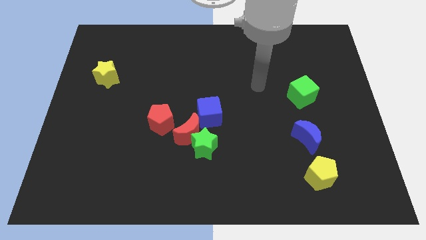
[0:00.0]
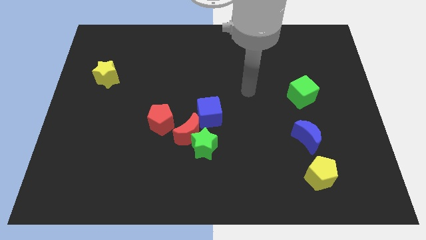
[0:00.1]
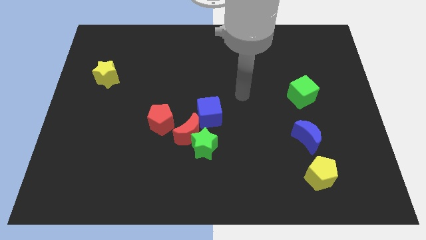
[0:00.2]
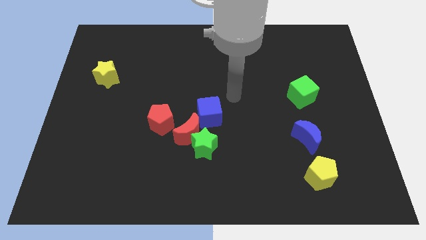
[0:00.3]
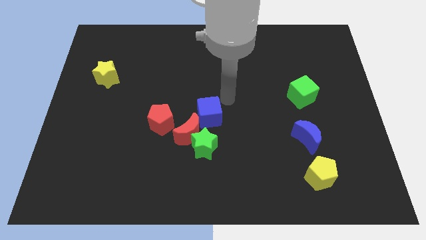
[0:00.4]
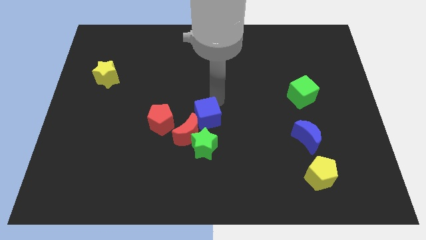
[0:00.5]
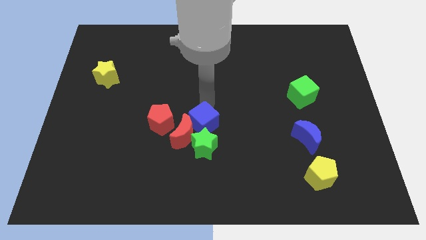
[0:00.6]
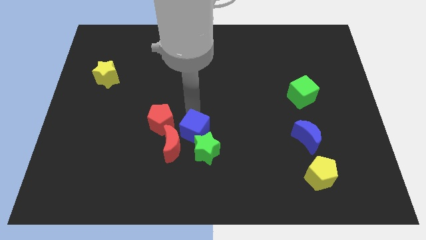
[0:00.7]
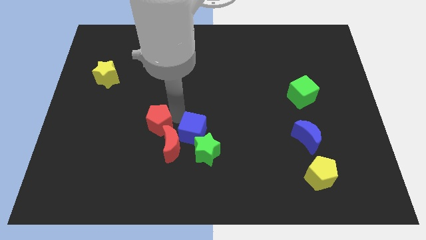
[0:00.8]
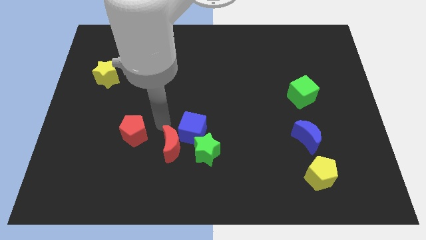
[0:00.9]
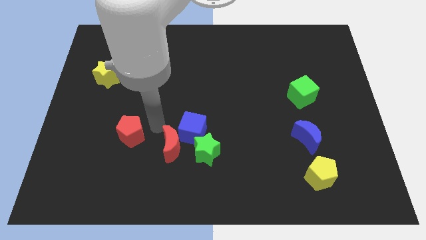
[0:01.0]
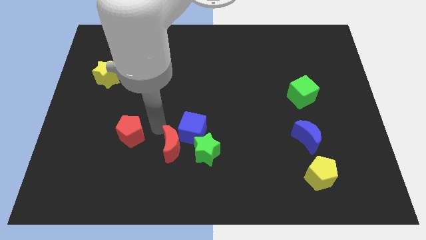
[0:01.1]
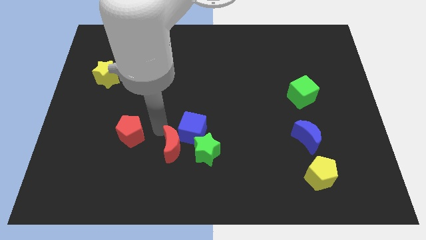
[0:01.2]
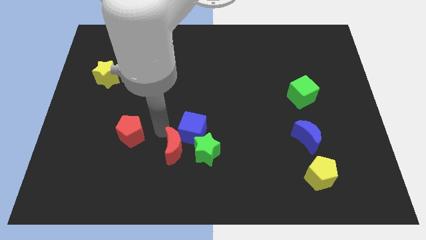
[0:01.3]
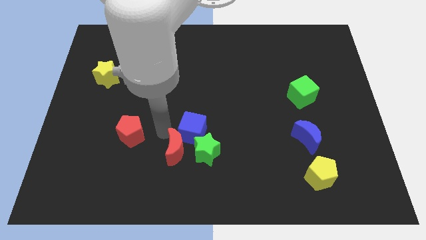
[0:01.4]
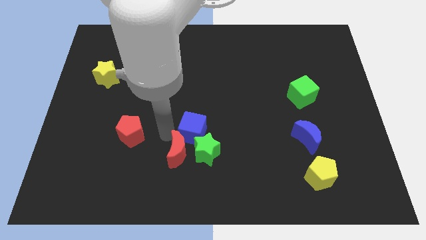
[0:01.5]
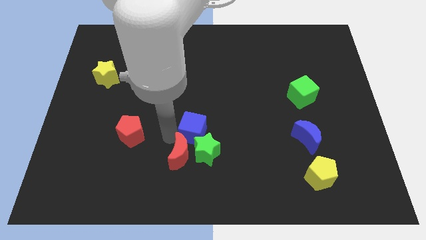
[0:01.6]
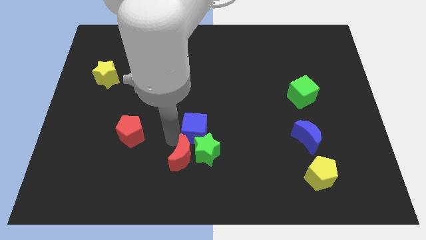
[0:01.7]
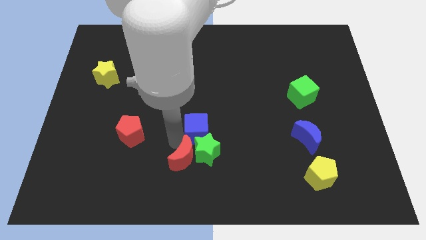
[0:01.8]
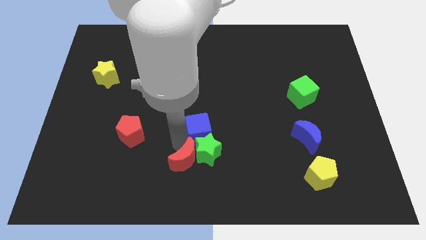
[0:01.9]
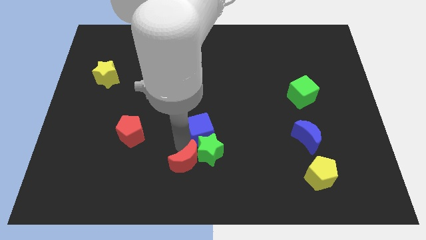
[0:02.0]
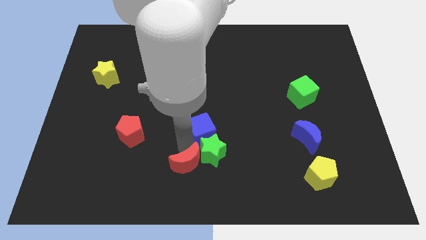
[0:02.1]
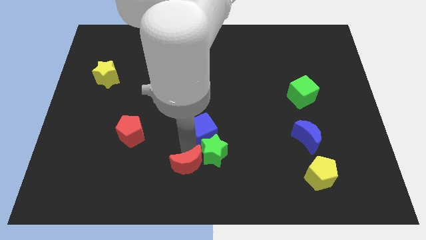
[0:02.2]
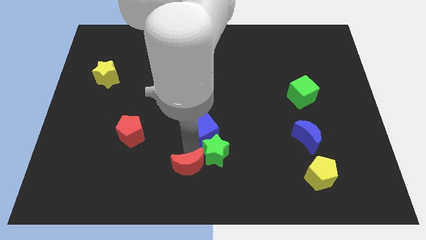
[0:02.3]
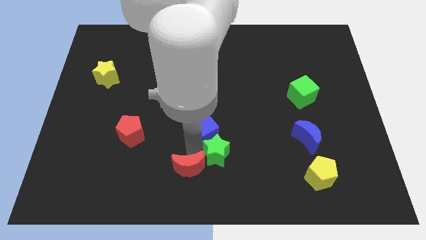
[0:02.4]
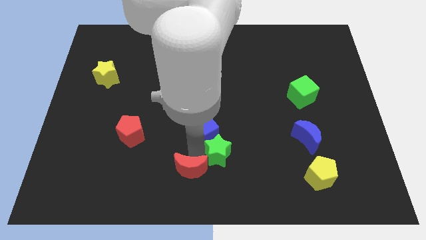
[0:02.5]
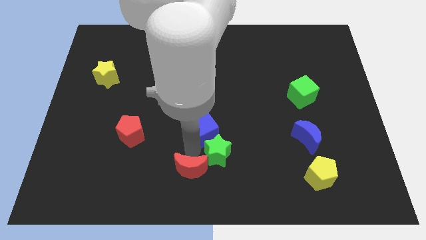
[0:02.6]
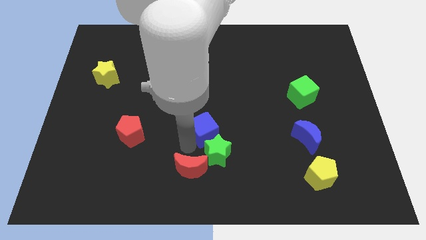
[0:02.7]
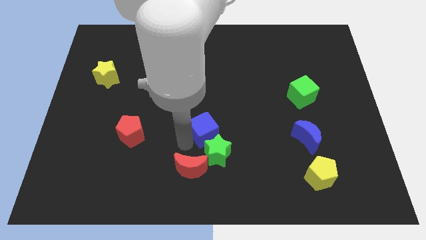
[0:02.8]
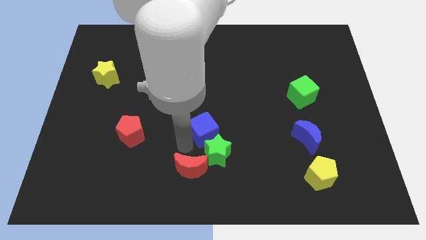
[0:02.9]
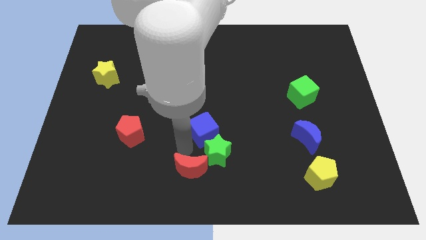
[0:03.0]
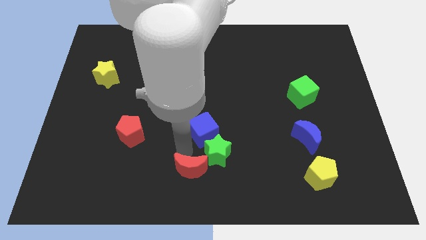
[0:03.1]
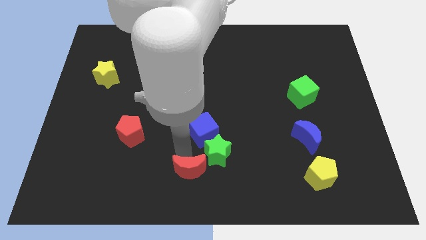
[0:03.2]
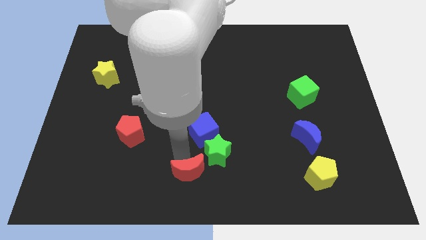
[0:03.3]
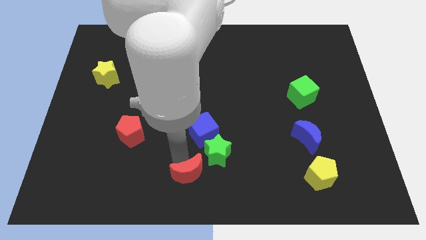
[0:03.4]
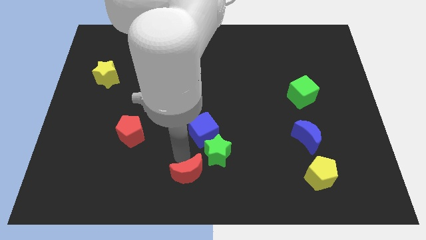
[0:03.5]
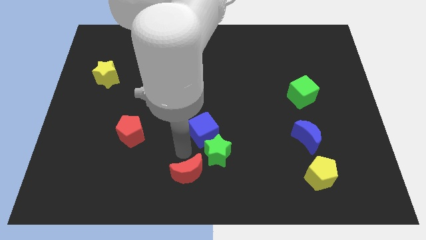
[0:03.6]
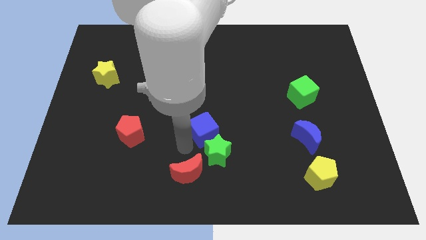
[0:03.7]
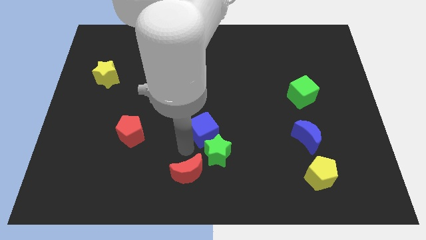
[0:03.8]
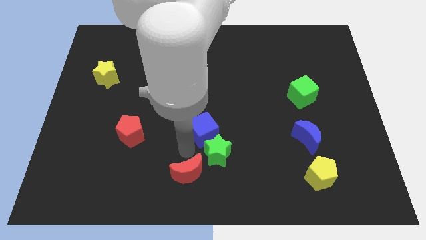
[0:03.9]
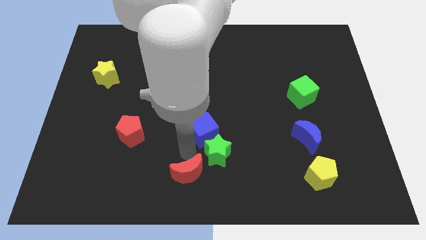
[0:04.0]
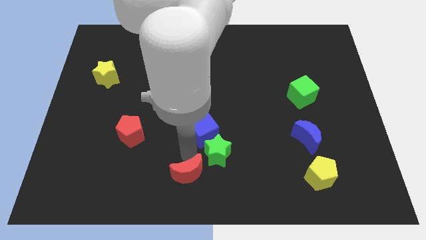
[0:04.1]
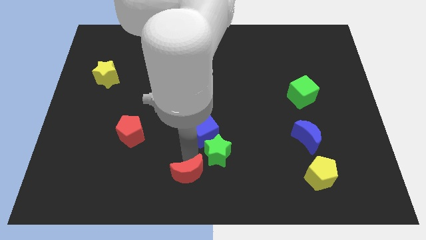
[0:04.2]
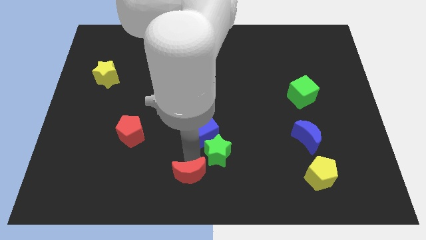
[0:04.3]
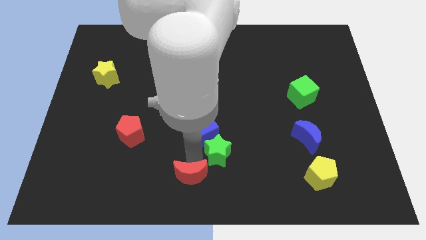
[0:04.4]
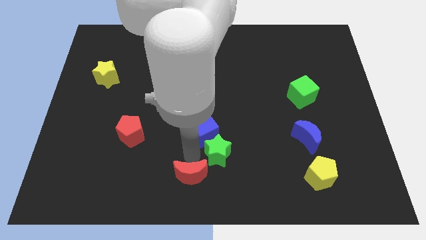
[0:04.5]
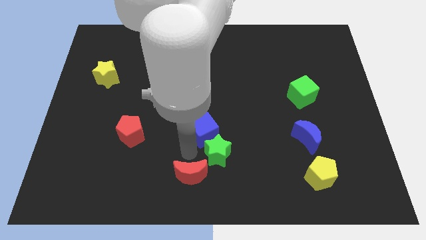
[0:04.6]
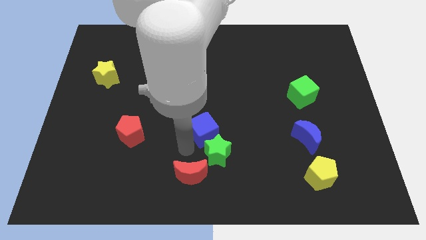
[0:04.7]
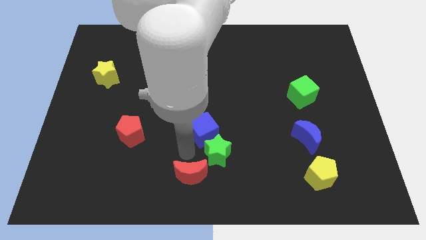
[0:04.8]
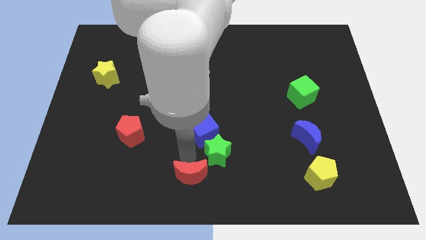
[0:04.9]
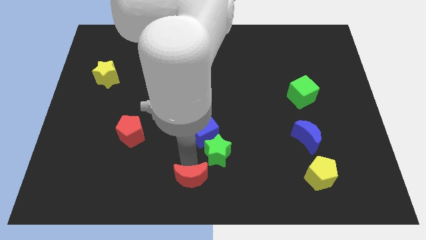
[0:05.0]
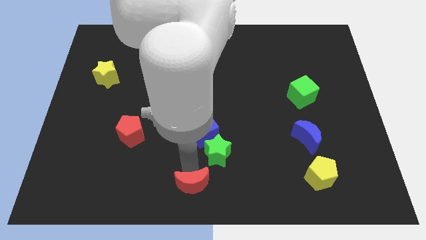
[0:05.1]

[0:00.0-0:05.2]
move the red moon away from the green star, blue cube, and red pentagon

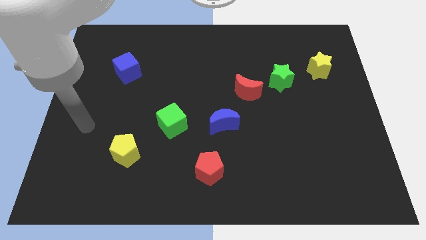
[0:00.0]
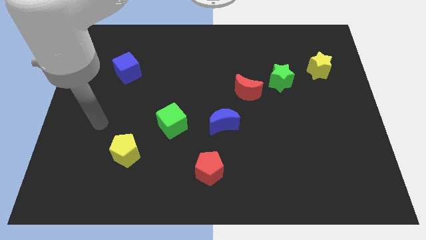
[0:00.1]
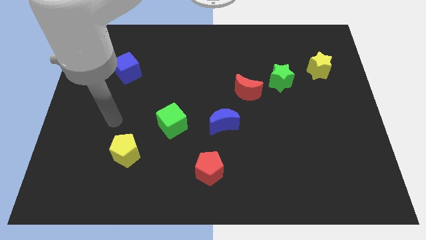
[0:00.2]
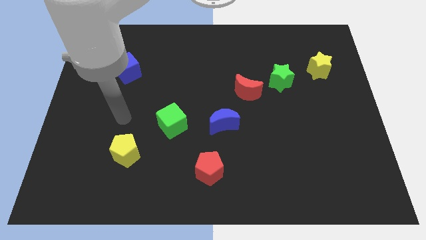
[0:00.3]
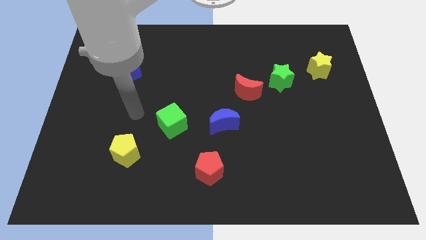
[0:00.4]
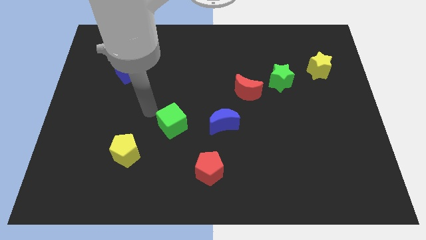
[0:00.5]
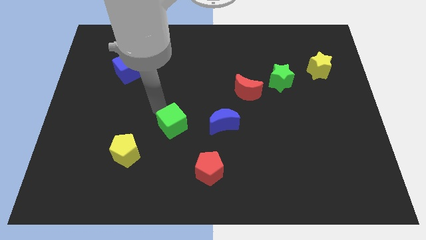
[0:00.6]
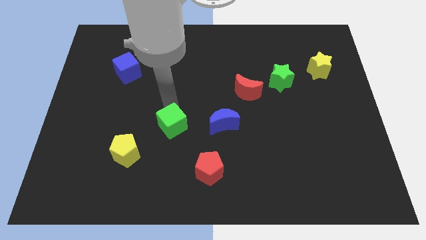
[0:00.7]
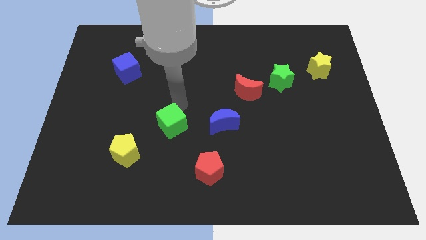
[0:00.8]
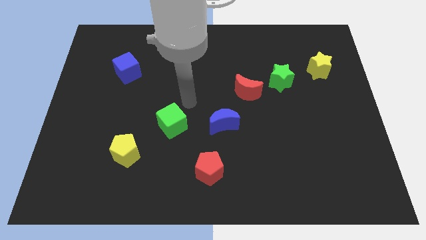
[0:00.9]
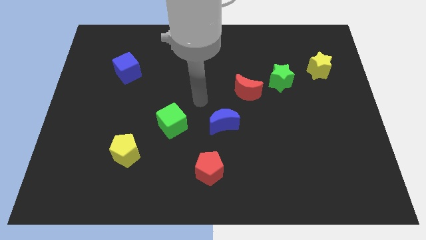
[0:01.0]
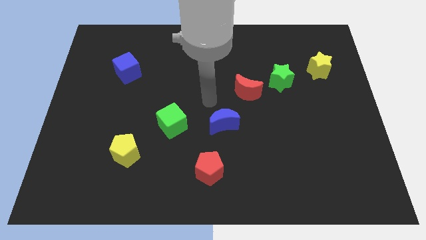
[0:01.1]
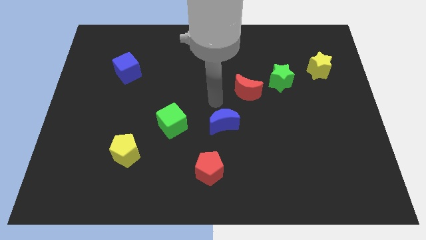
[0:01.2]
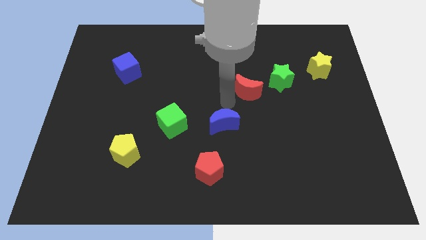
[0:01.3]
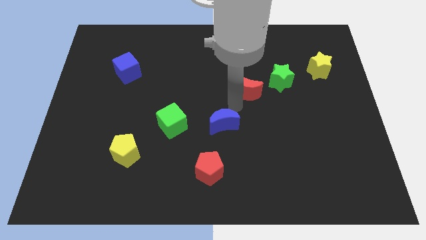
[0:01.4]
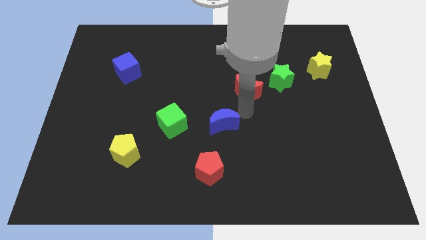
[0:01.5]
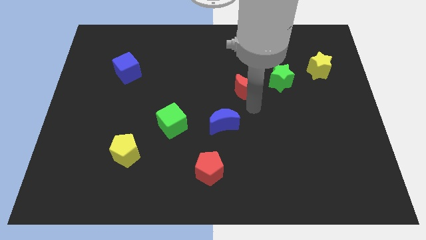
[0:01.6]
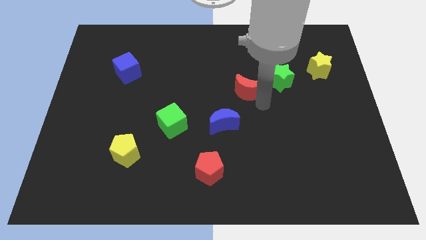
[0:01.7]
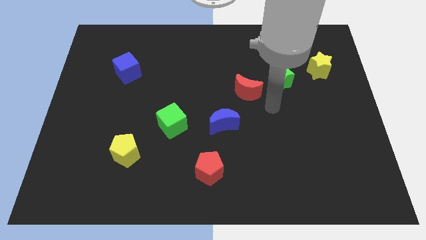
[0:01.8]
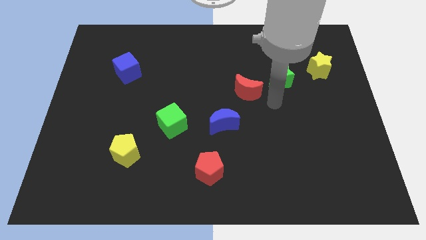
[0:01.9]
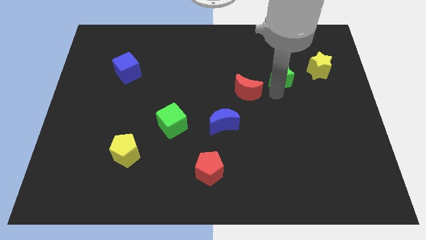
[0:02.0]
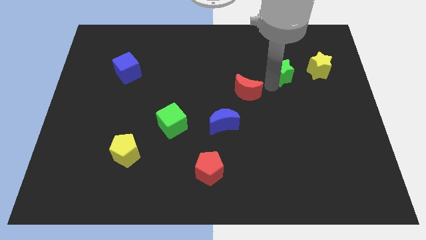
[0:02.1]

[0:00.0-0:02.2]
separate the red moon from the green star

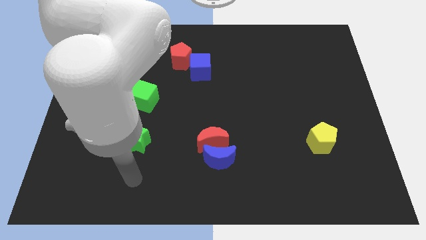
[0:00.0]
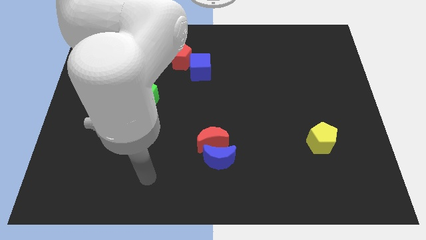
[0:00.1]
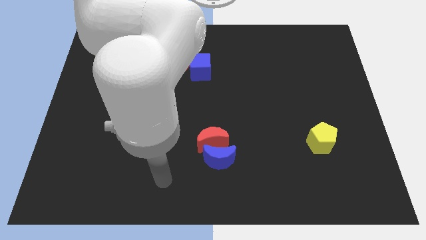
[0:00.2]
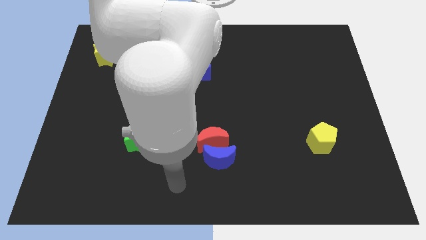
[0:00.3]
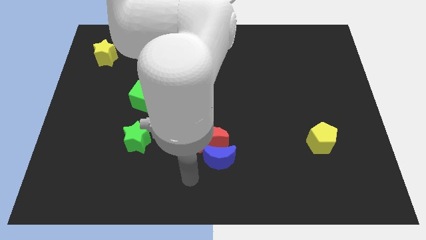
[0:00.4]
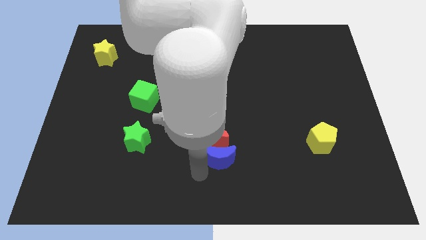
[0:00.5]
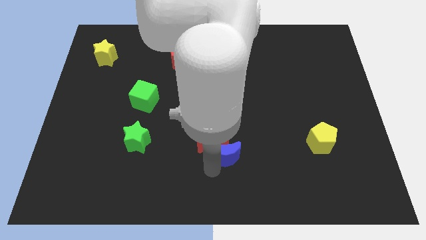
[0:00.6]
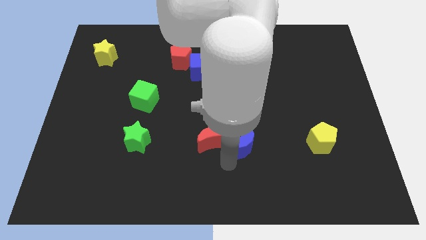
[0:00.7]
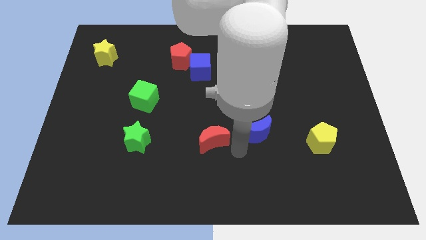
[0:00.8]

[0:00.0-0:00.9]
separate the red moon from the blue moon

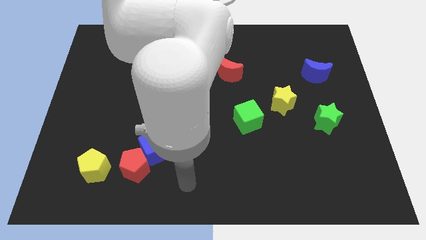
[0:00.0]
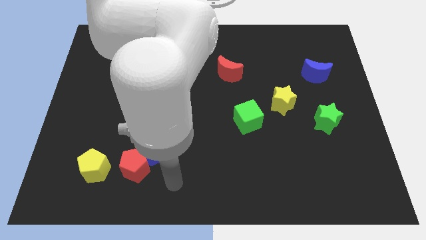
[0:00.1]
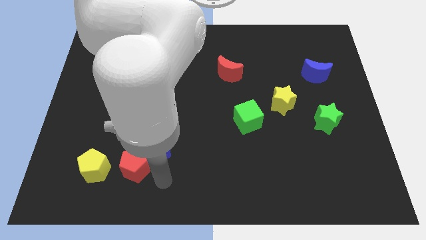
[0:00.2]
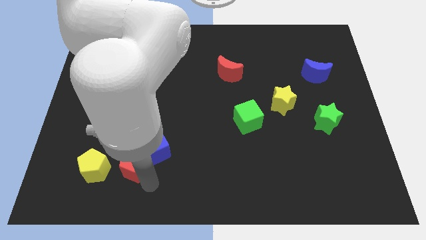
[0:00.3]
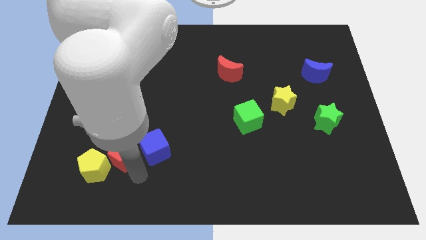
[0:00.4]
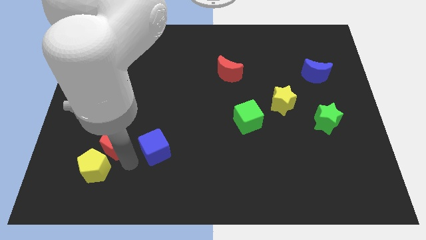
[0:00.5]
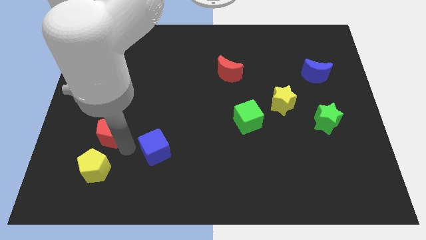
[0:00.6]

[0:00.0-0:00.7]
separate the blue cube from the red pentagon

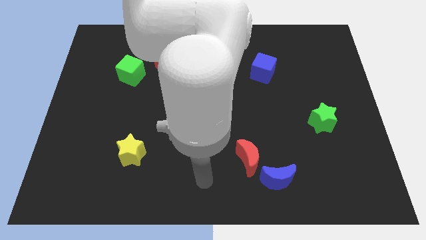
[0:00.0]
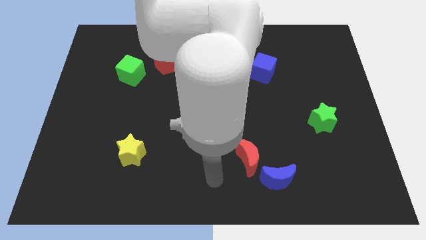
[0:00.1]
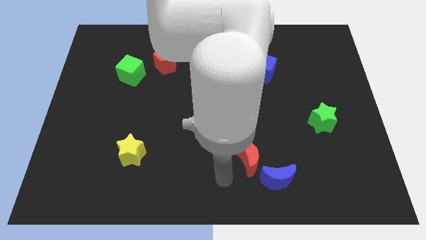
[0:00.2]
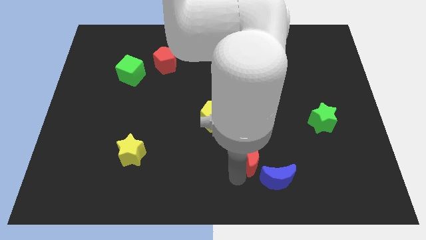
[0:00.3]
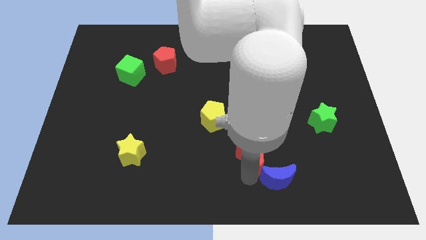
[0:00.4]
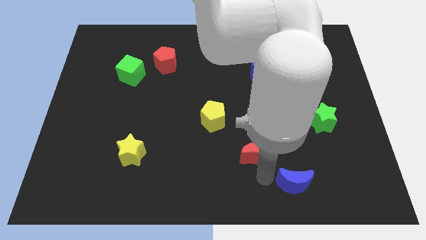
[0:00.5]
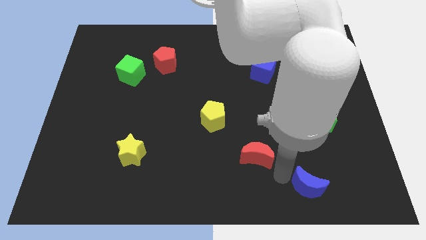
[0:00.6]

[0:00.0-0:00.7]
move the red moon away from the blue moon
